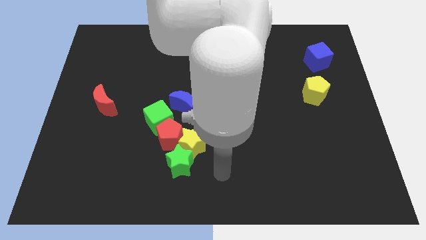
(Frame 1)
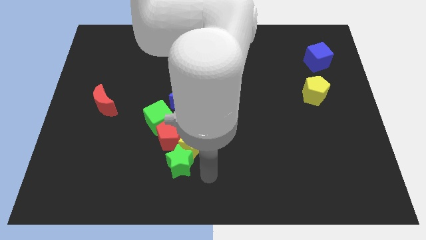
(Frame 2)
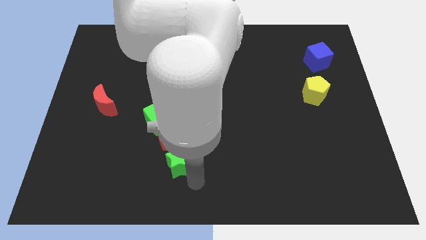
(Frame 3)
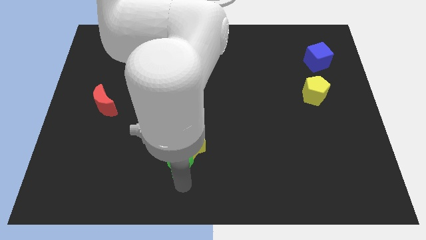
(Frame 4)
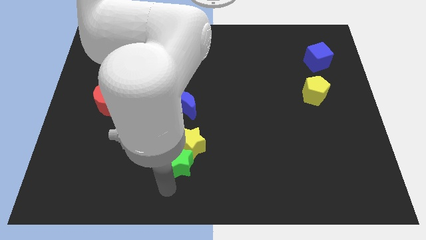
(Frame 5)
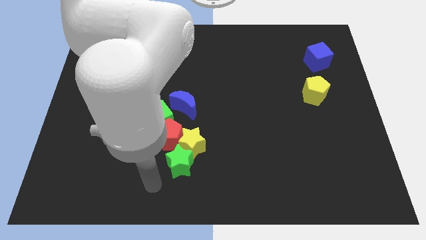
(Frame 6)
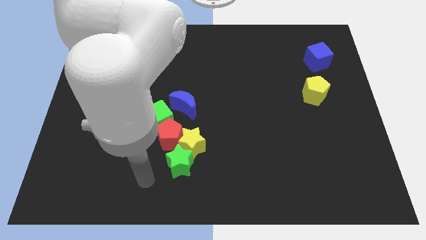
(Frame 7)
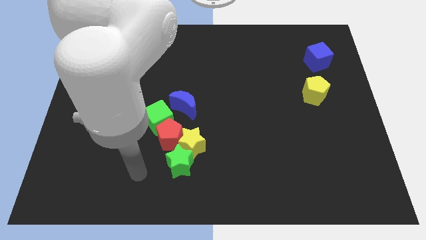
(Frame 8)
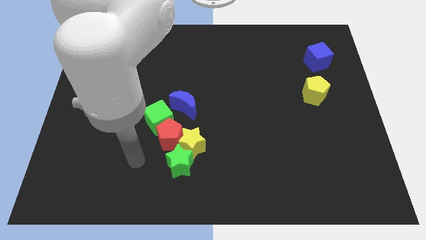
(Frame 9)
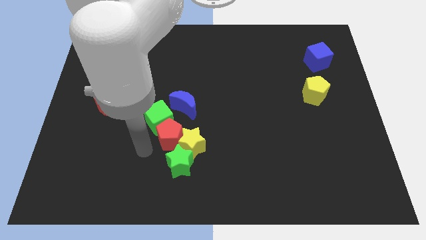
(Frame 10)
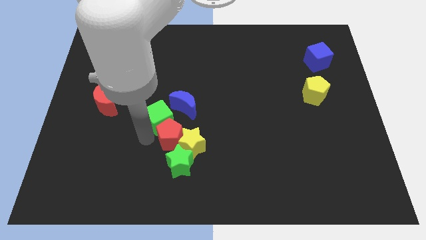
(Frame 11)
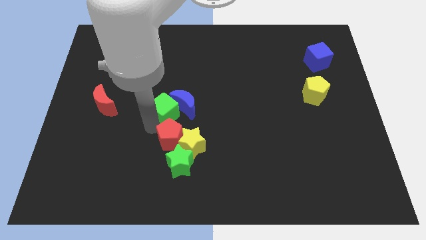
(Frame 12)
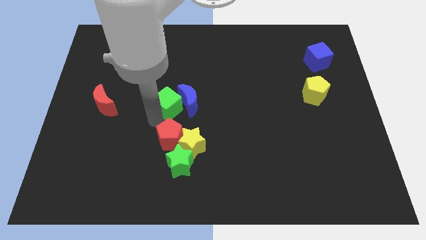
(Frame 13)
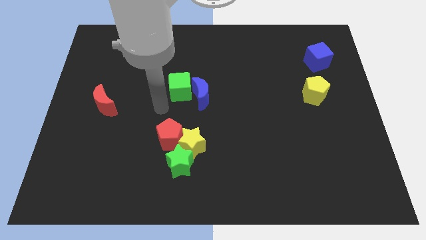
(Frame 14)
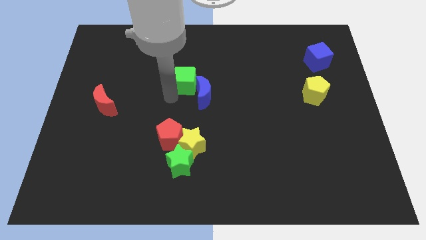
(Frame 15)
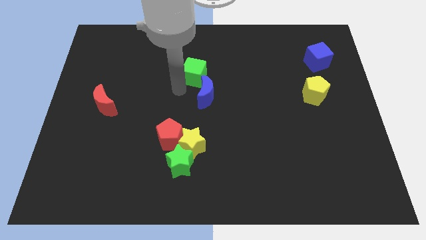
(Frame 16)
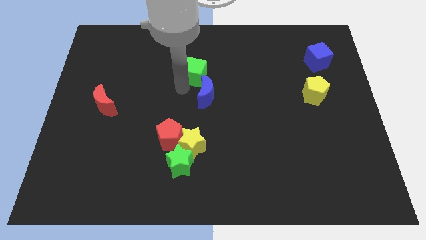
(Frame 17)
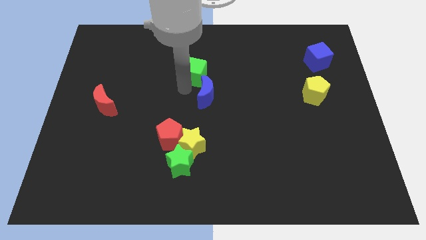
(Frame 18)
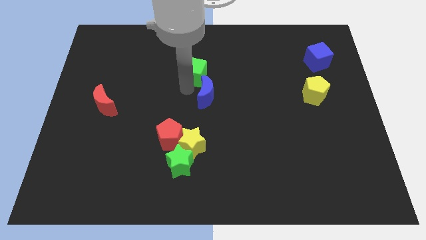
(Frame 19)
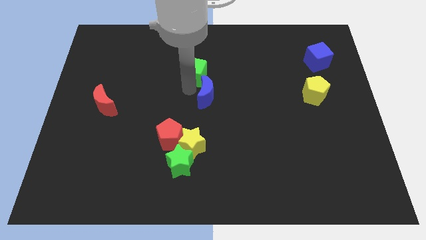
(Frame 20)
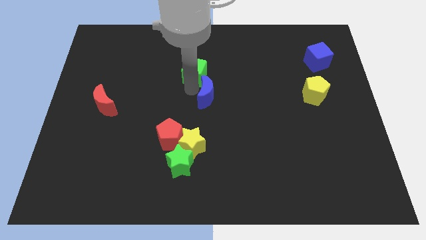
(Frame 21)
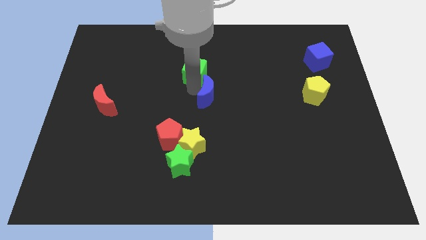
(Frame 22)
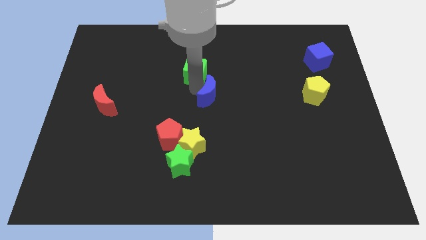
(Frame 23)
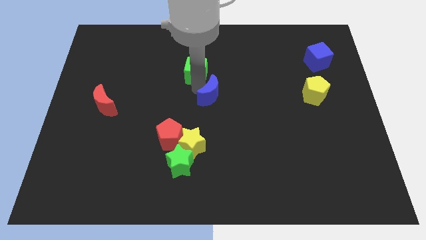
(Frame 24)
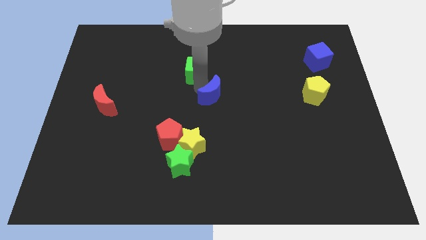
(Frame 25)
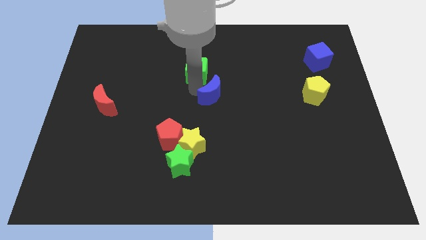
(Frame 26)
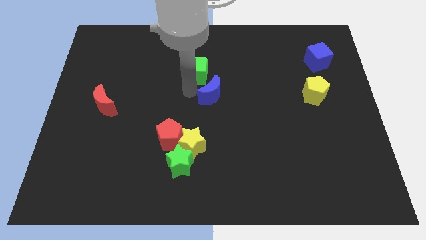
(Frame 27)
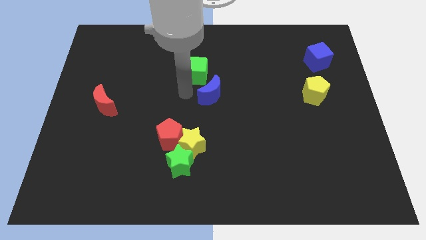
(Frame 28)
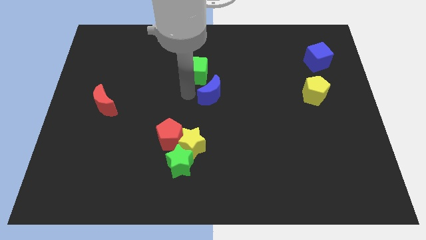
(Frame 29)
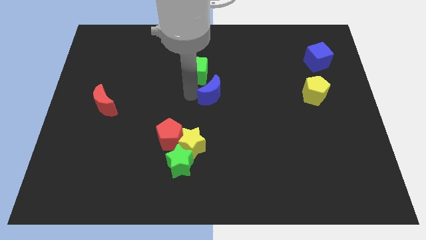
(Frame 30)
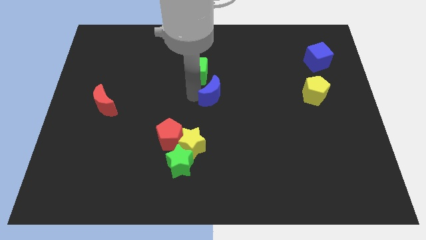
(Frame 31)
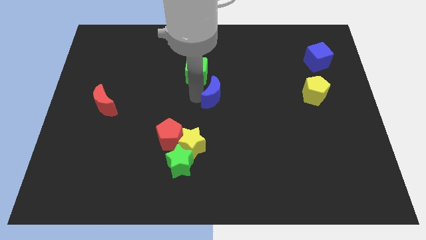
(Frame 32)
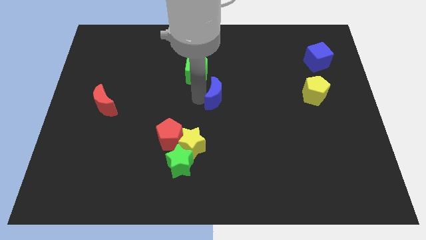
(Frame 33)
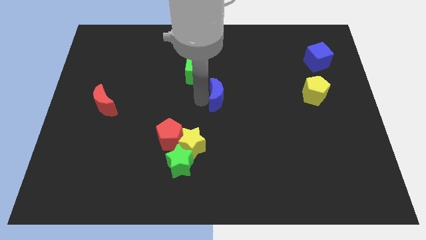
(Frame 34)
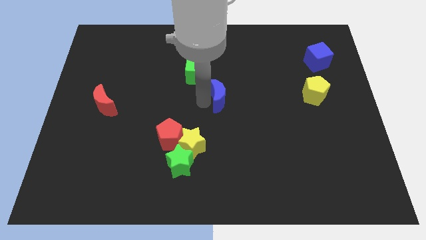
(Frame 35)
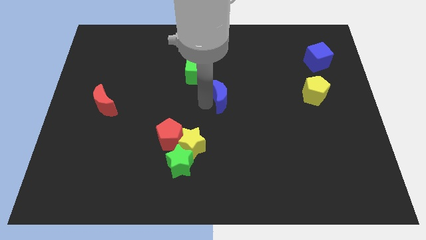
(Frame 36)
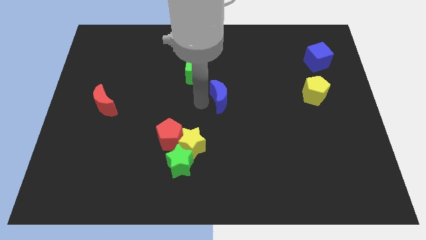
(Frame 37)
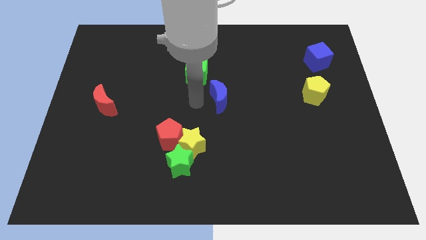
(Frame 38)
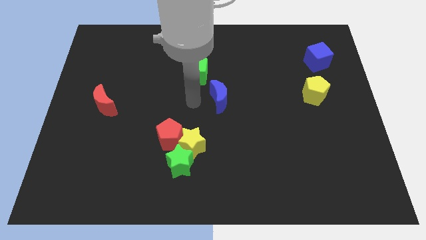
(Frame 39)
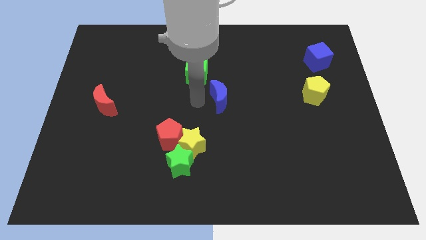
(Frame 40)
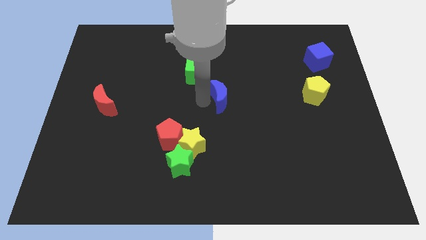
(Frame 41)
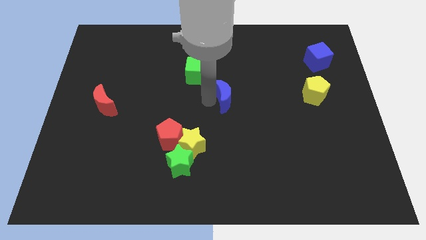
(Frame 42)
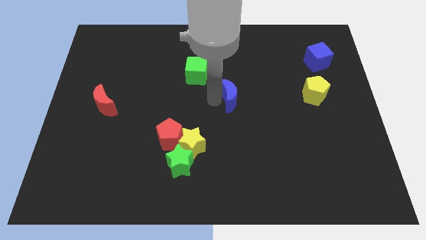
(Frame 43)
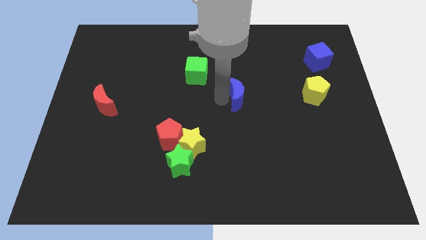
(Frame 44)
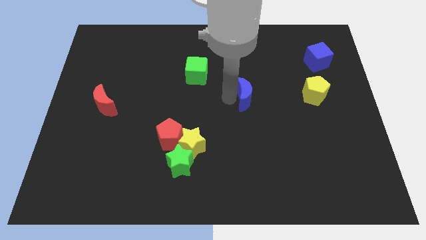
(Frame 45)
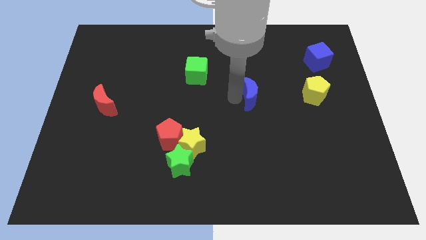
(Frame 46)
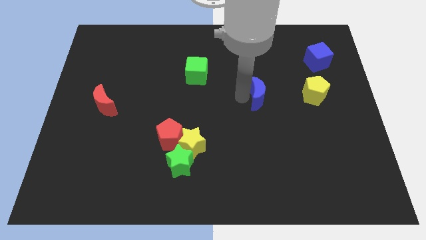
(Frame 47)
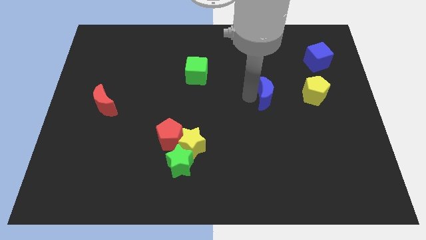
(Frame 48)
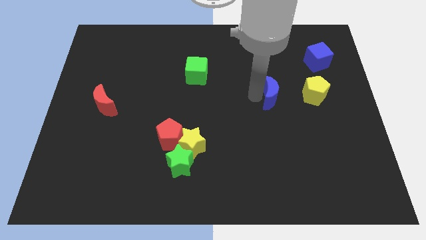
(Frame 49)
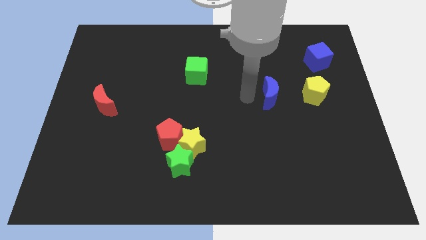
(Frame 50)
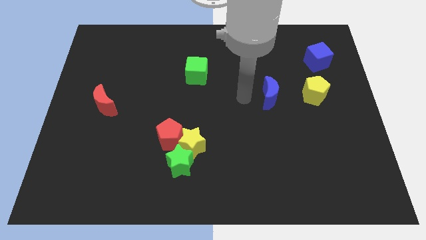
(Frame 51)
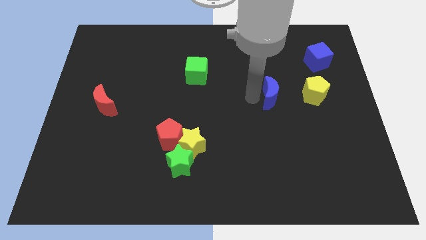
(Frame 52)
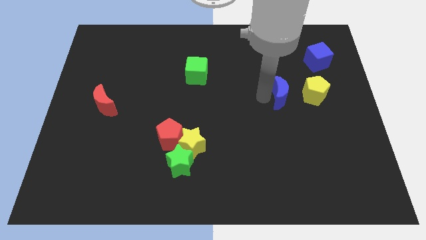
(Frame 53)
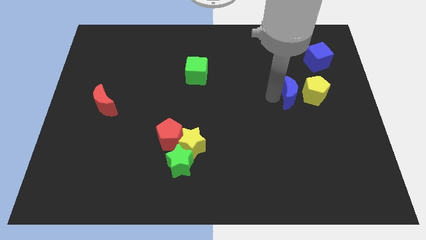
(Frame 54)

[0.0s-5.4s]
push the blue moon next to the yellow pentagon

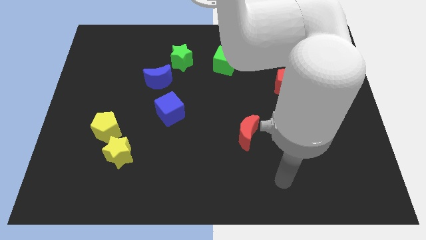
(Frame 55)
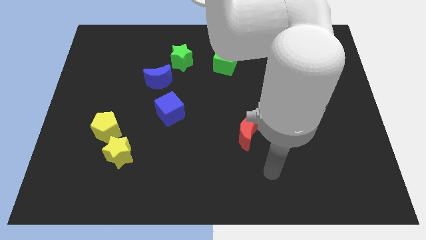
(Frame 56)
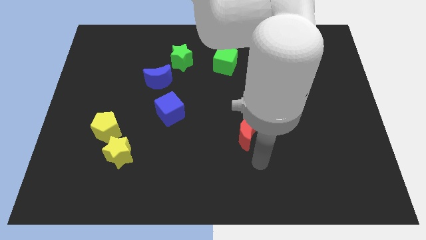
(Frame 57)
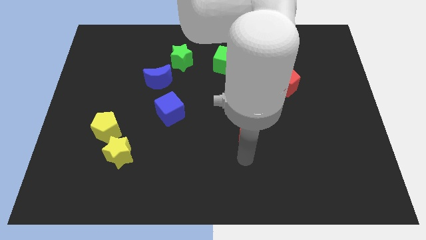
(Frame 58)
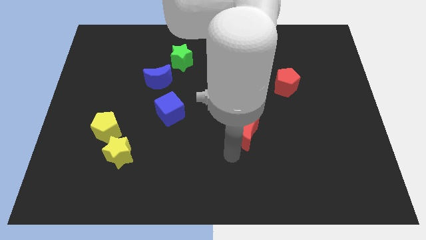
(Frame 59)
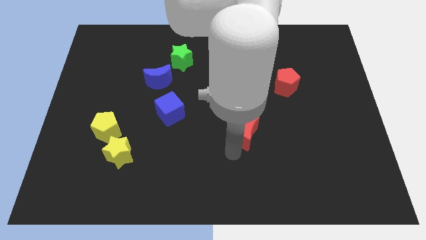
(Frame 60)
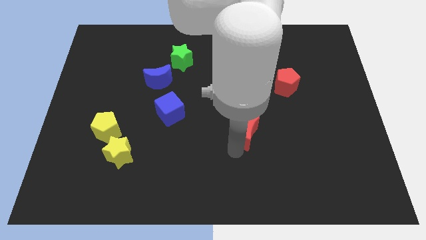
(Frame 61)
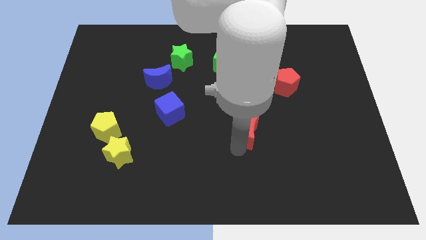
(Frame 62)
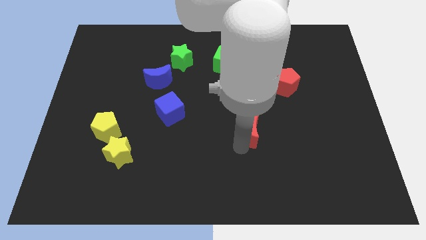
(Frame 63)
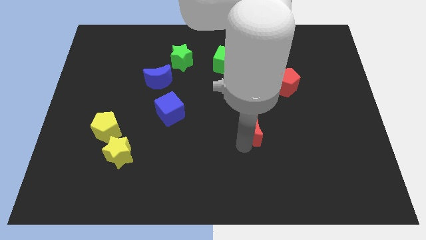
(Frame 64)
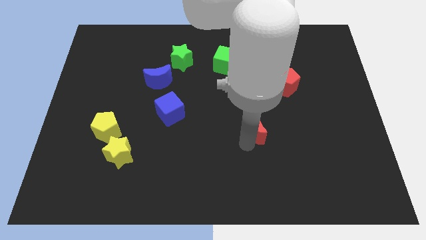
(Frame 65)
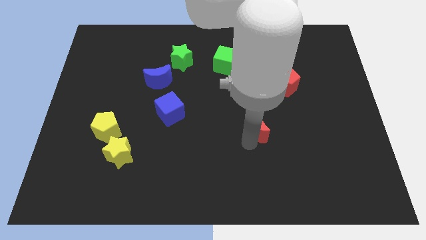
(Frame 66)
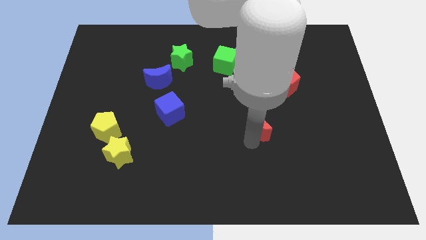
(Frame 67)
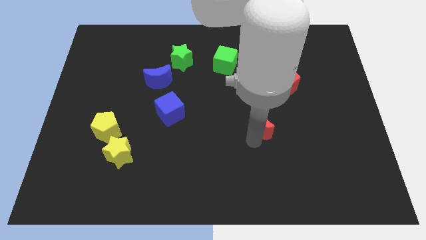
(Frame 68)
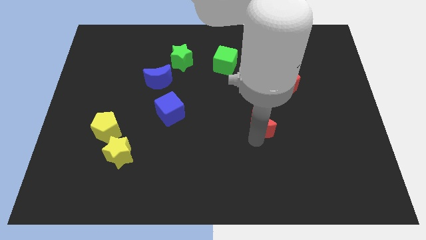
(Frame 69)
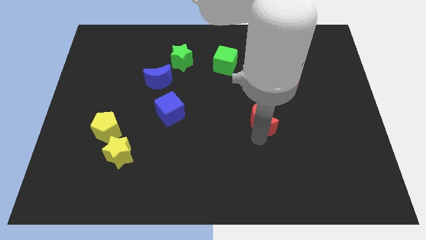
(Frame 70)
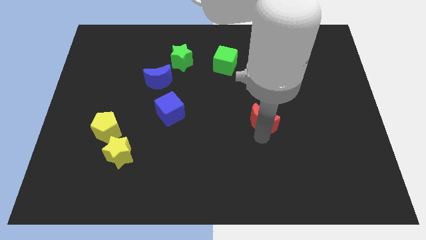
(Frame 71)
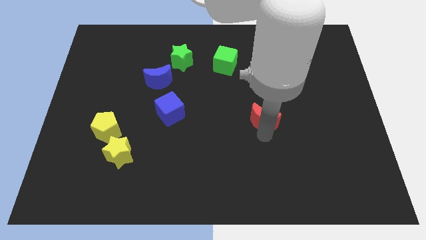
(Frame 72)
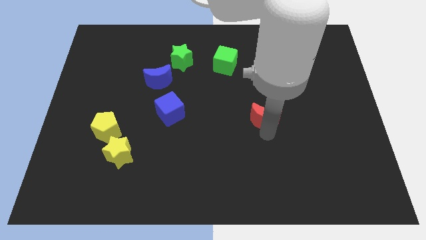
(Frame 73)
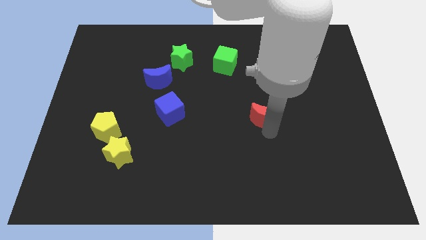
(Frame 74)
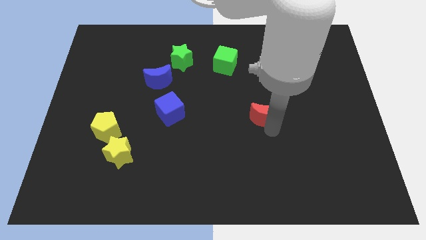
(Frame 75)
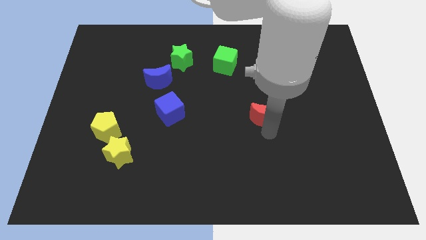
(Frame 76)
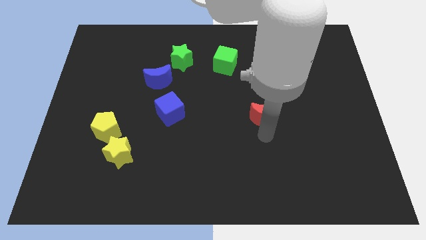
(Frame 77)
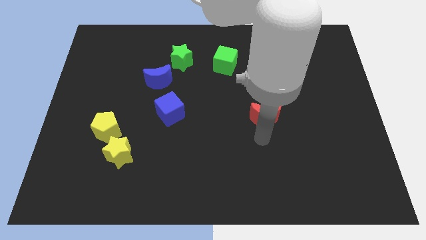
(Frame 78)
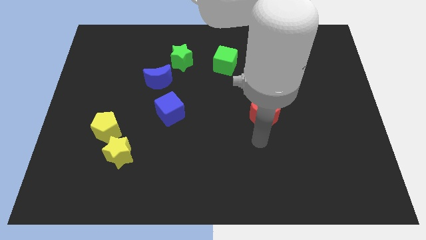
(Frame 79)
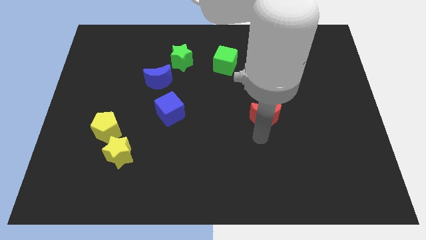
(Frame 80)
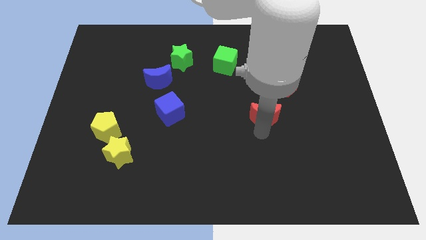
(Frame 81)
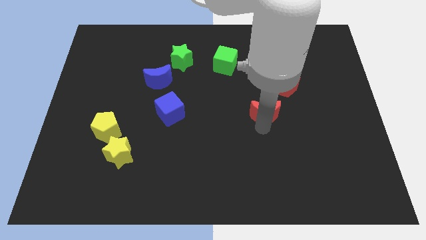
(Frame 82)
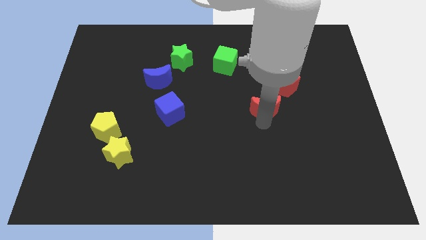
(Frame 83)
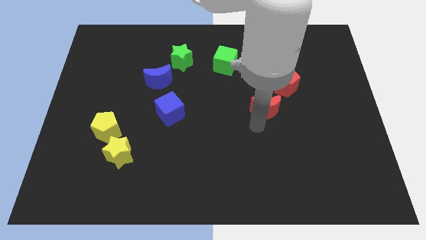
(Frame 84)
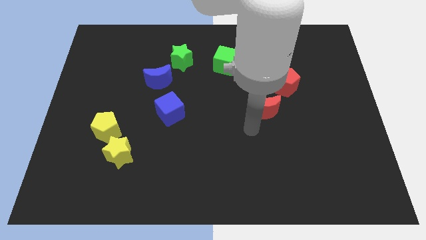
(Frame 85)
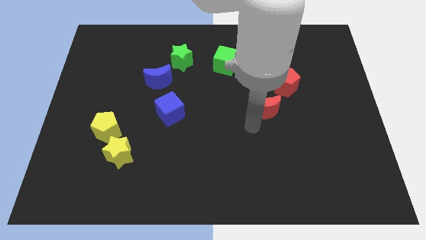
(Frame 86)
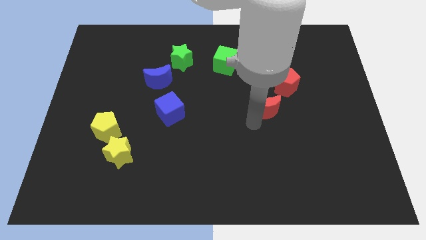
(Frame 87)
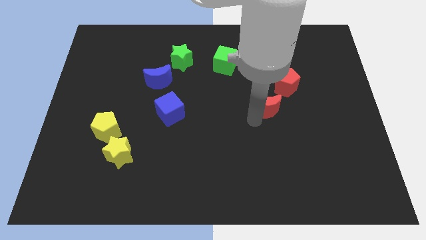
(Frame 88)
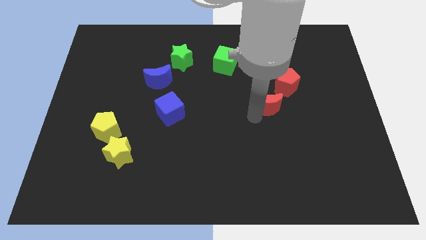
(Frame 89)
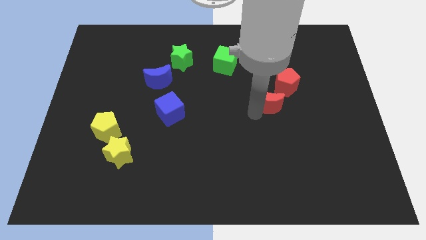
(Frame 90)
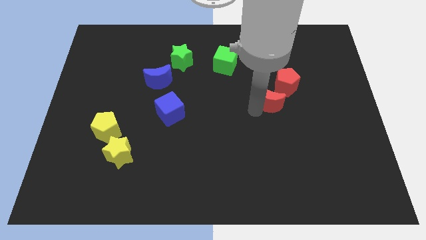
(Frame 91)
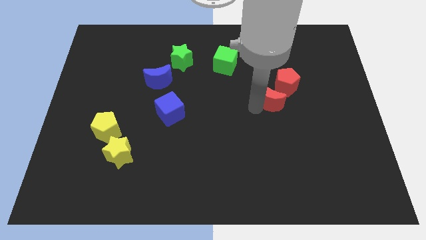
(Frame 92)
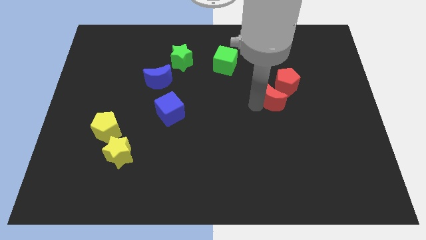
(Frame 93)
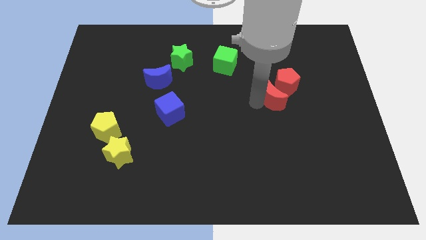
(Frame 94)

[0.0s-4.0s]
slide the red moon close to the red pentagon
